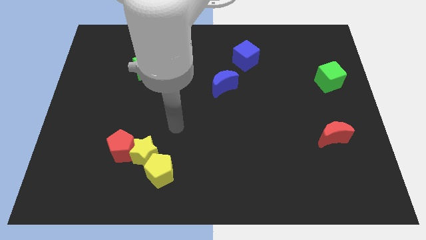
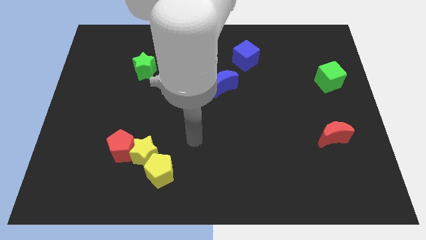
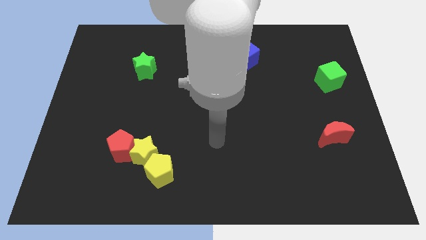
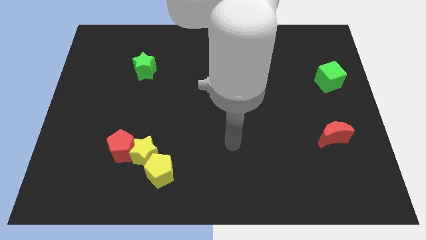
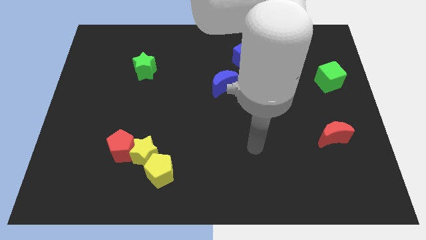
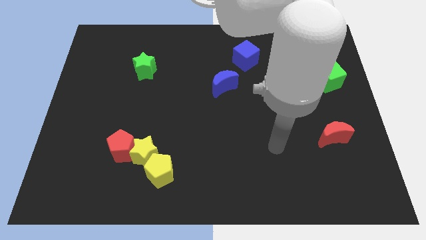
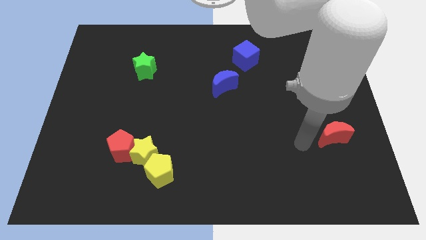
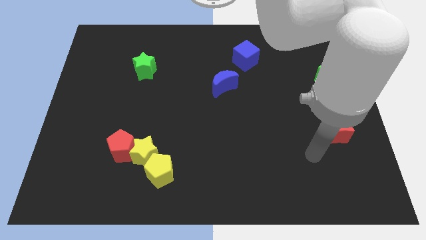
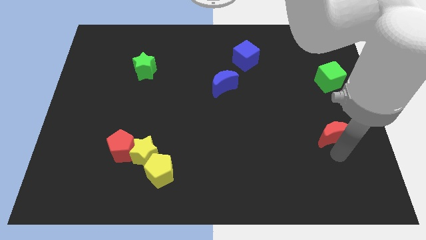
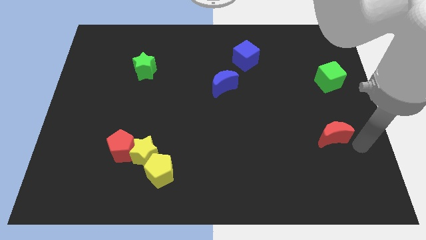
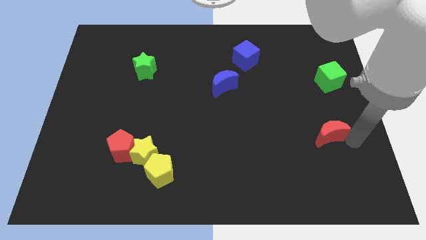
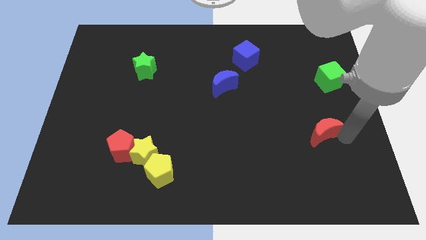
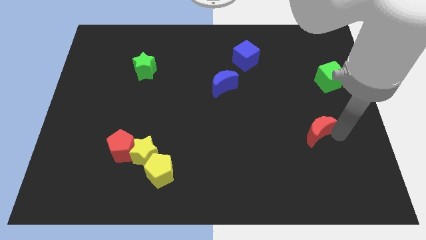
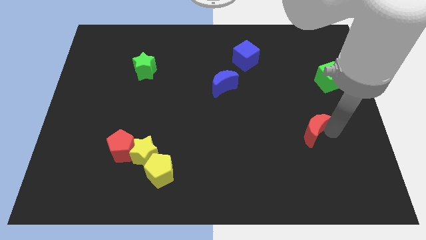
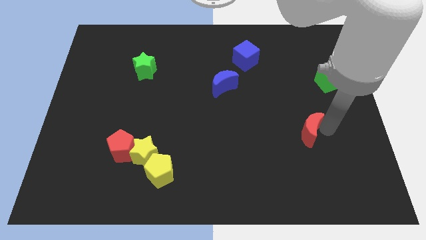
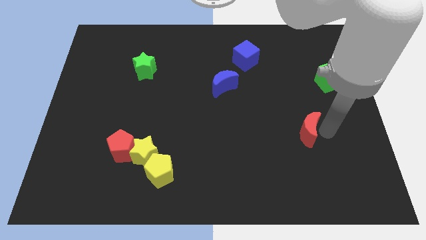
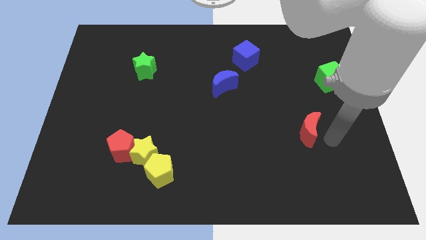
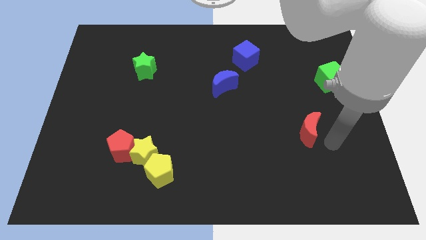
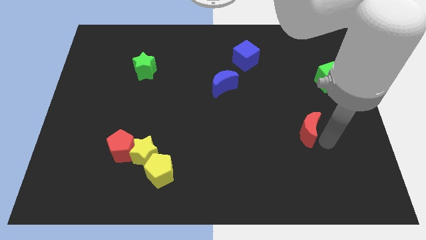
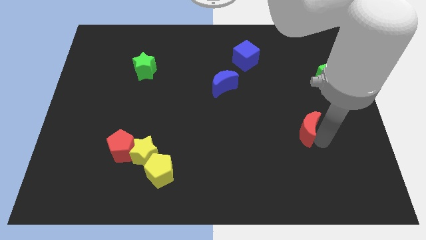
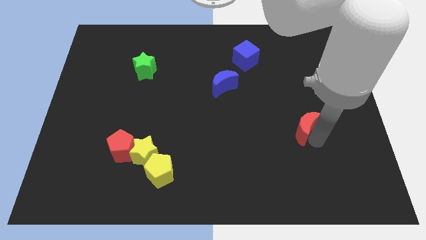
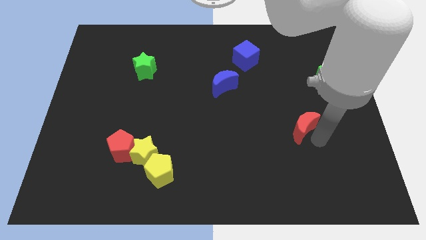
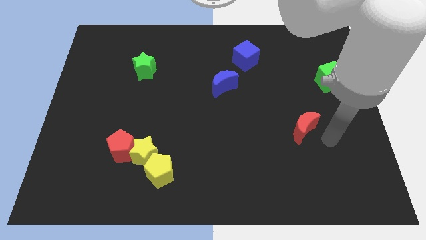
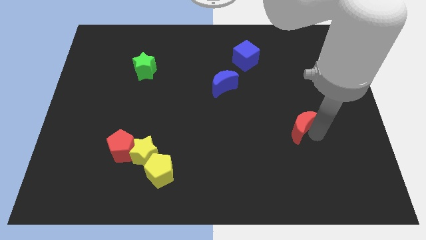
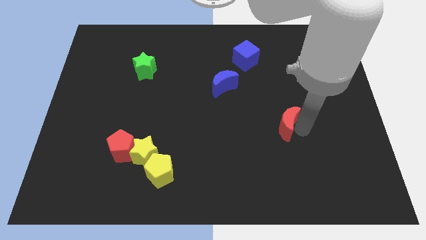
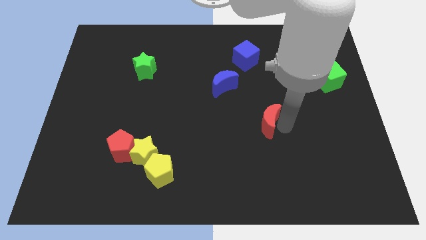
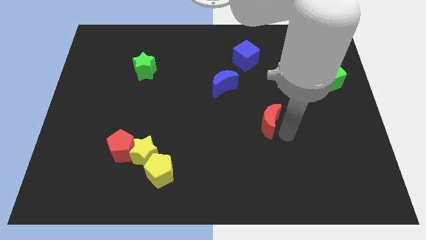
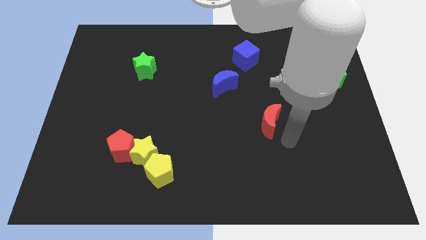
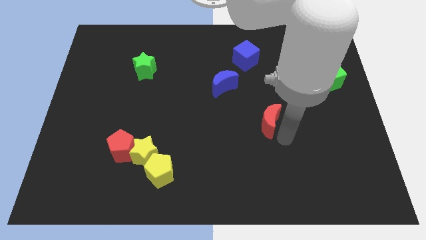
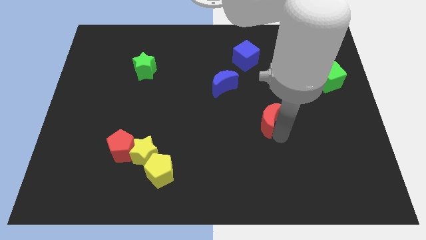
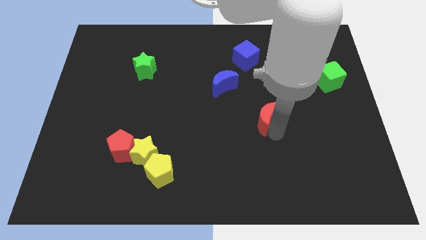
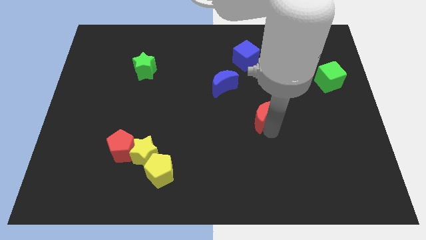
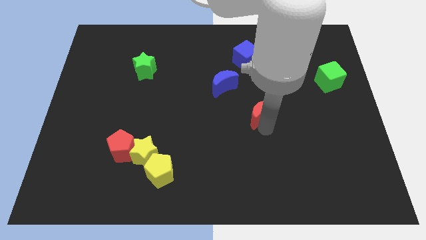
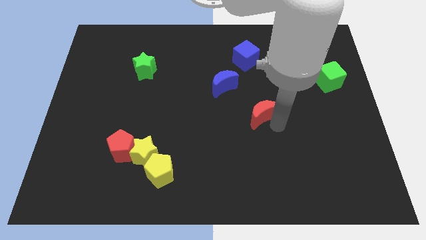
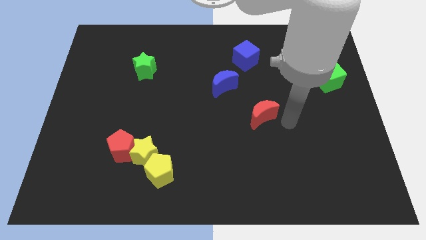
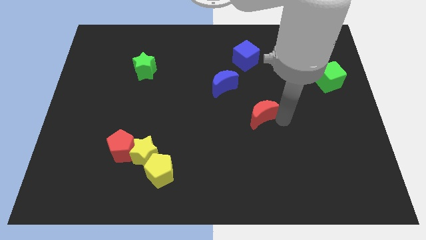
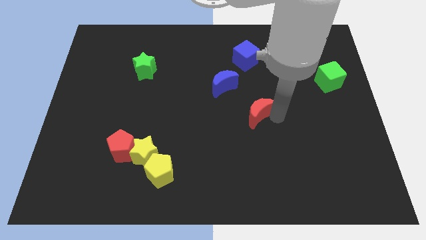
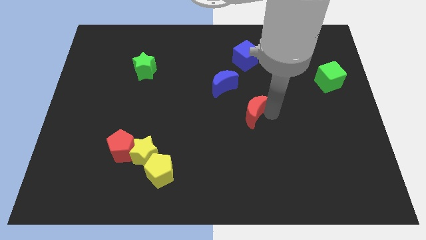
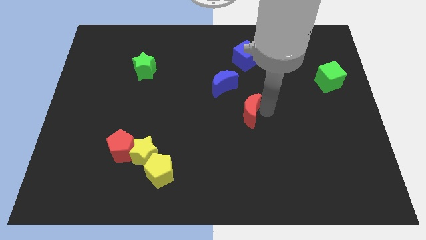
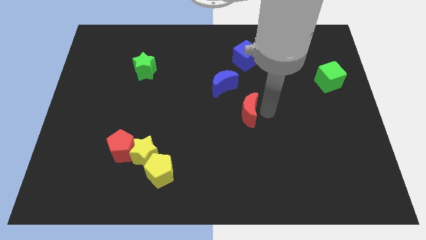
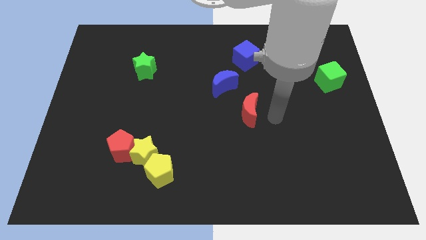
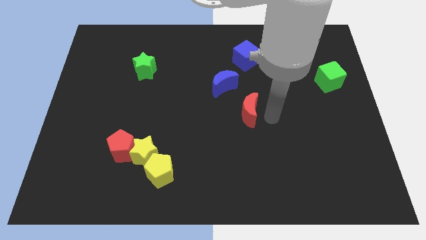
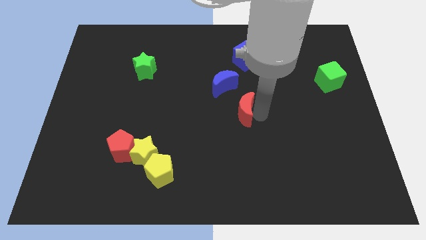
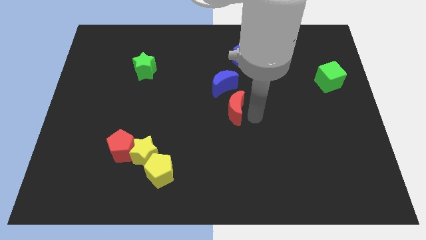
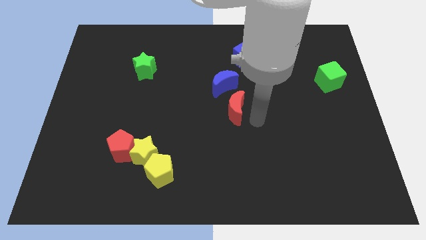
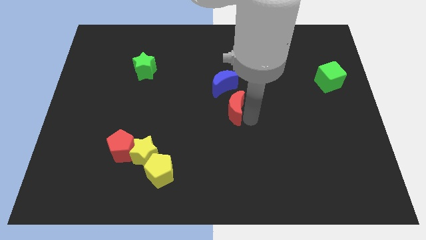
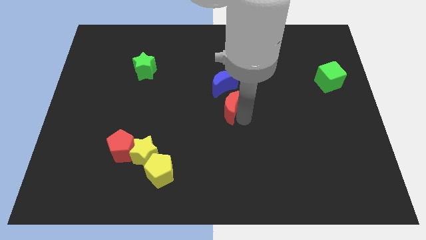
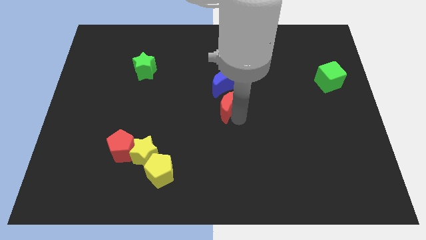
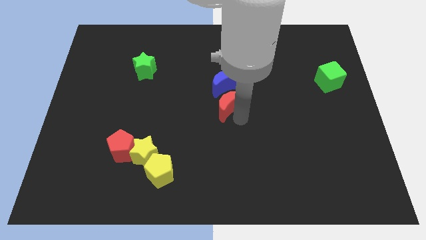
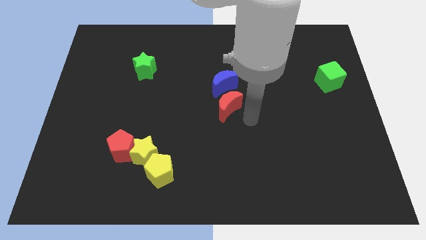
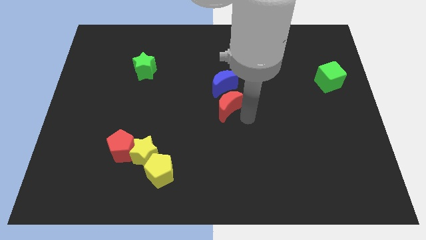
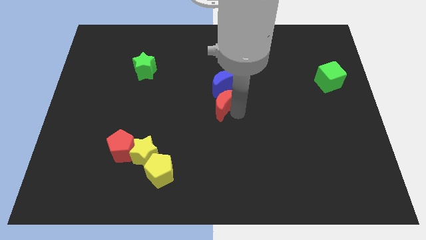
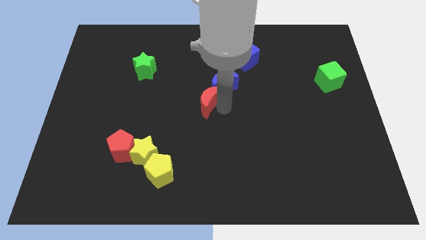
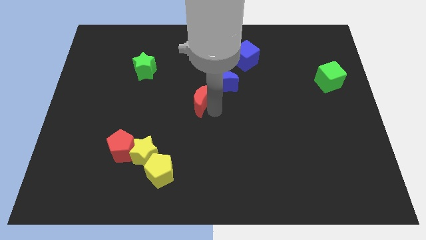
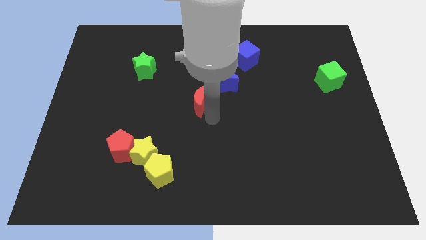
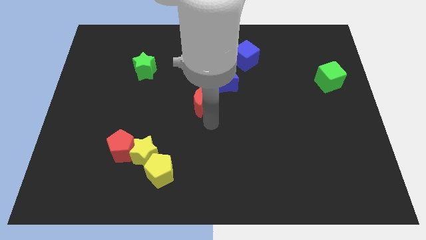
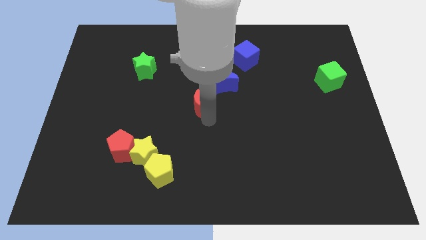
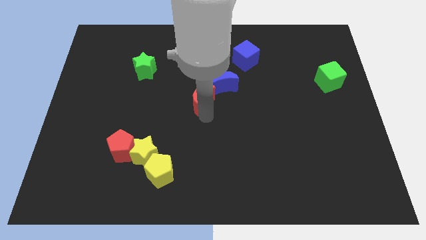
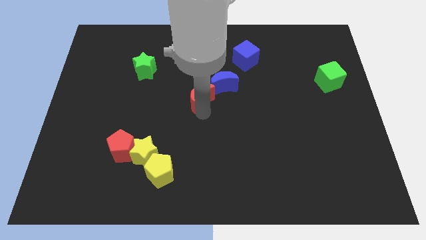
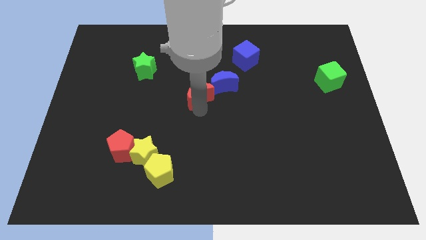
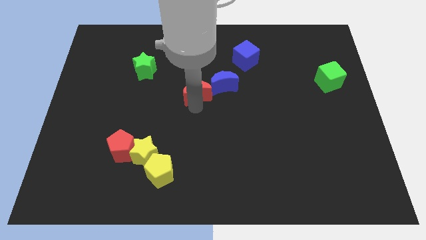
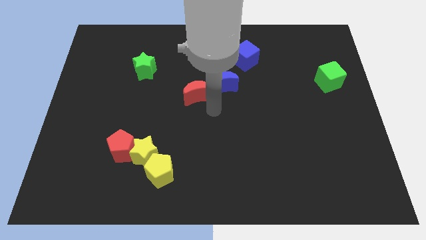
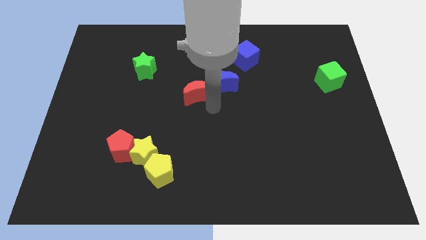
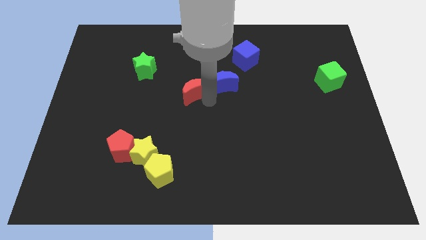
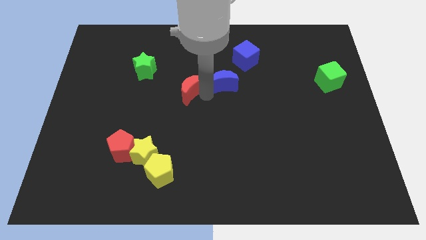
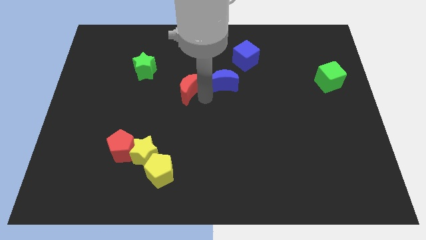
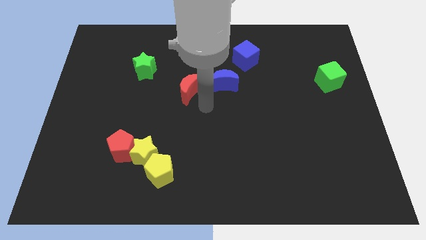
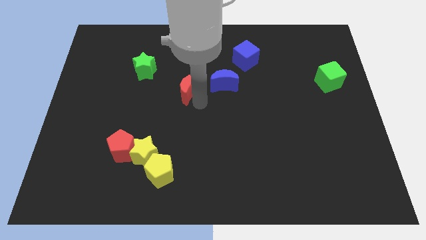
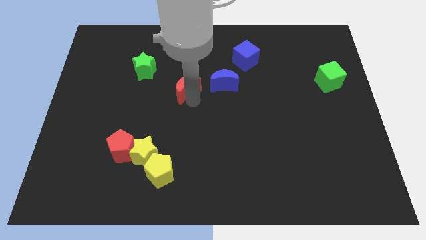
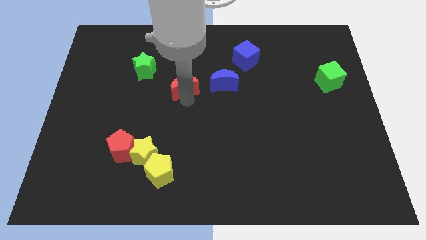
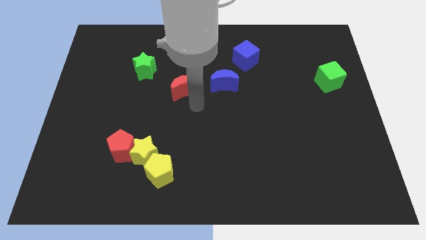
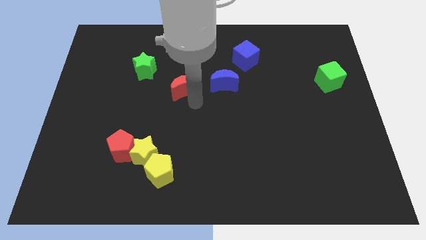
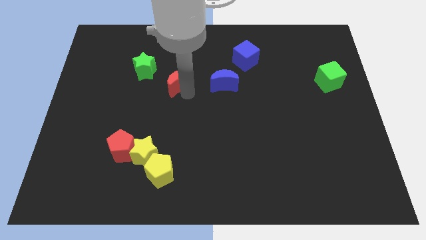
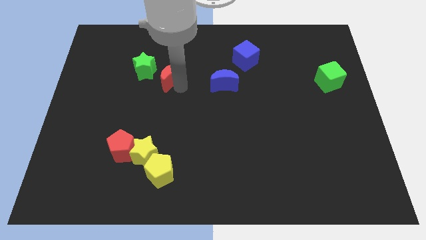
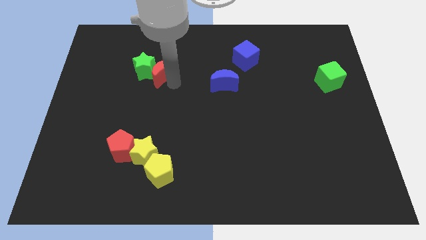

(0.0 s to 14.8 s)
slide the red moon to the top right side of the green star
